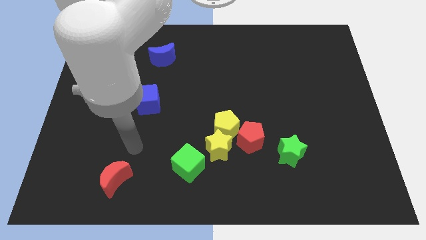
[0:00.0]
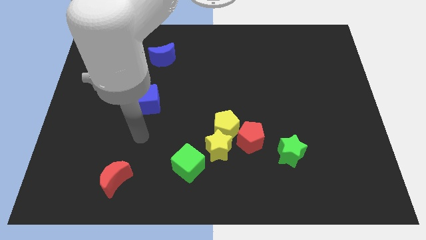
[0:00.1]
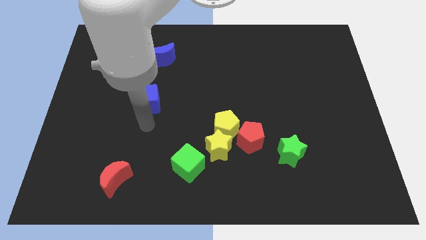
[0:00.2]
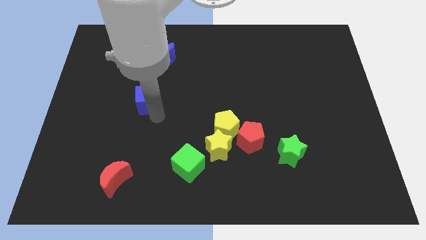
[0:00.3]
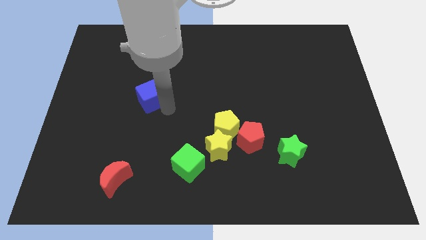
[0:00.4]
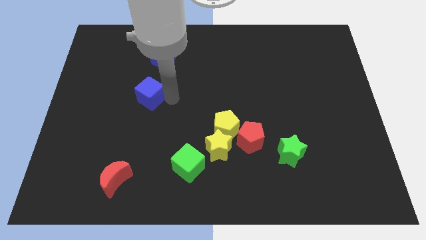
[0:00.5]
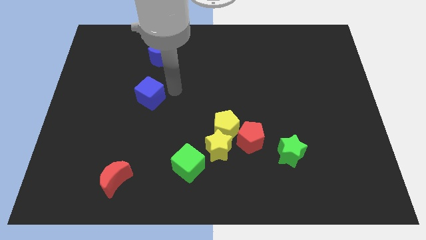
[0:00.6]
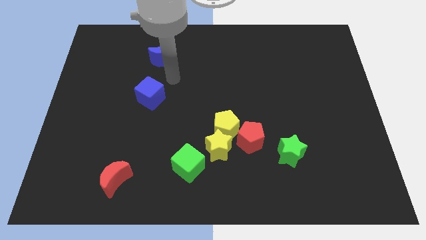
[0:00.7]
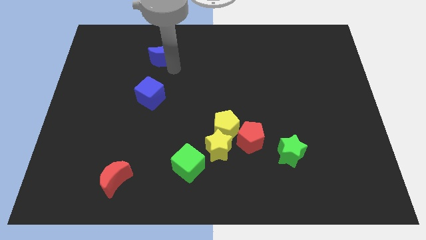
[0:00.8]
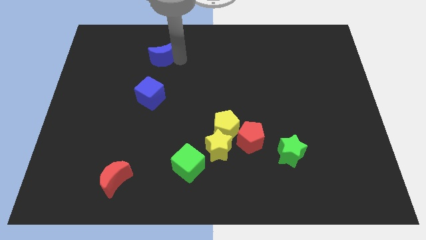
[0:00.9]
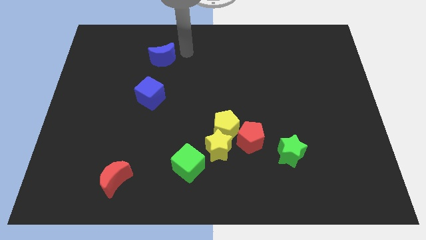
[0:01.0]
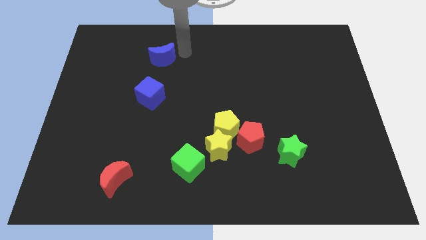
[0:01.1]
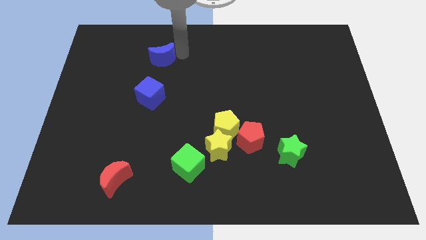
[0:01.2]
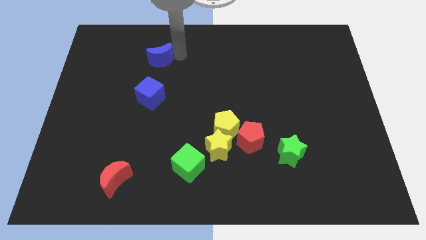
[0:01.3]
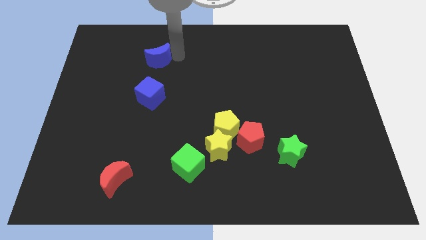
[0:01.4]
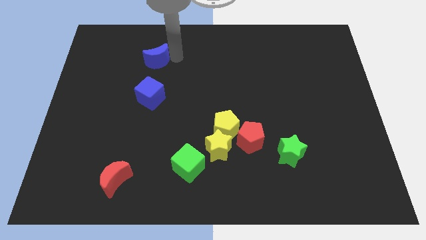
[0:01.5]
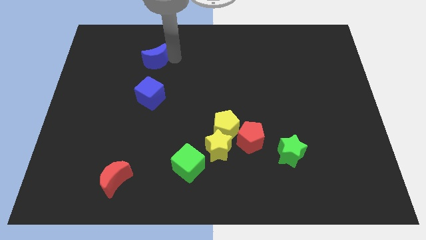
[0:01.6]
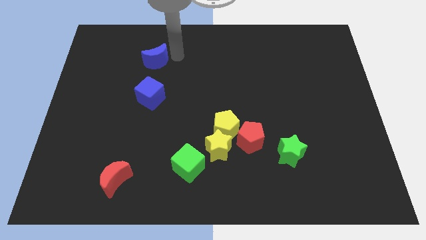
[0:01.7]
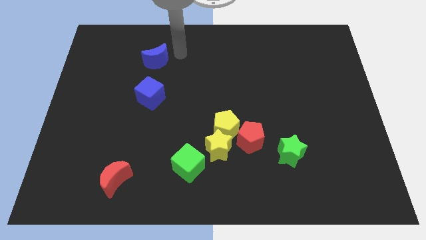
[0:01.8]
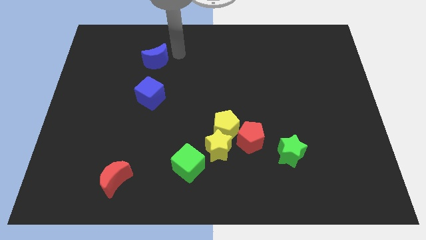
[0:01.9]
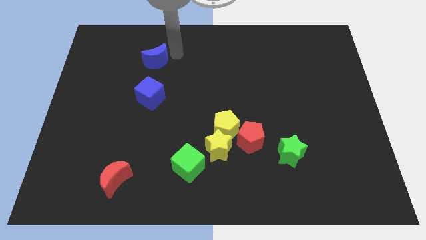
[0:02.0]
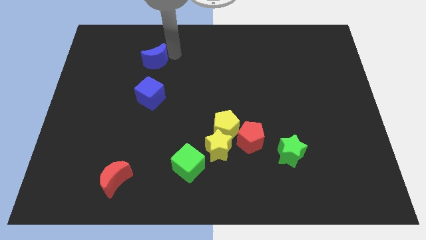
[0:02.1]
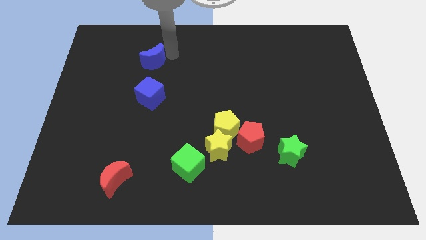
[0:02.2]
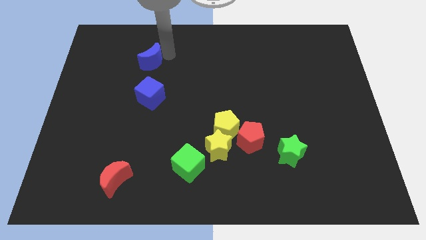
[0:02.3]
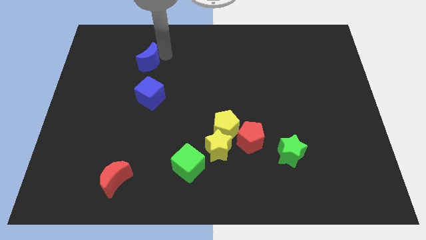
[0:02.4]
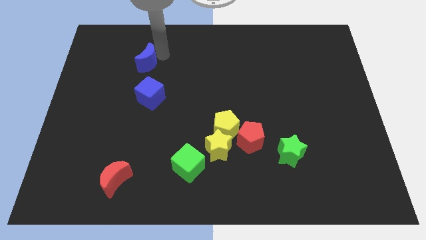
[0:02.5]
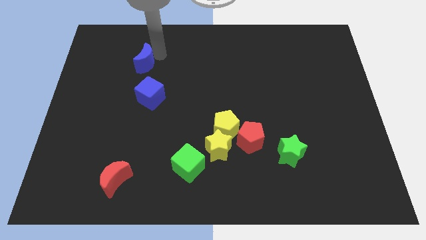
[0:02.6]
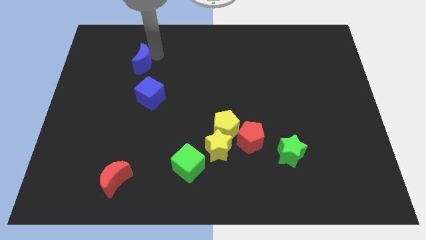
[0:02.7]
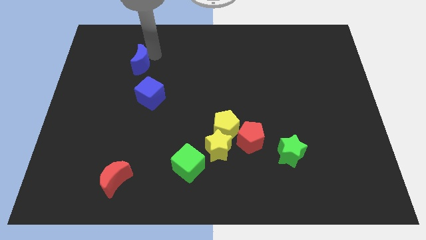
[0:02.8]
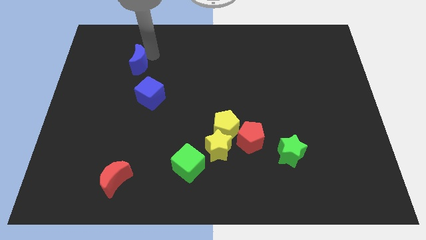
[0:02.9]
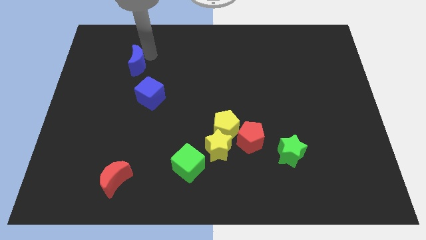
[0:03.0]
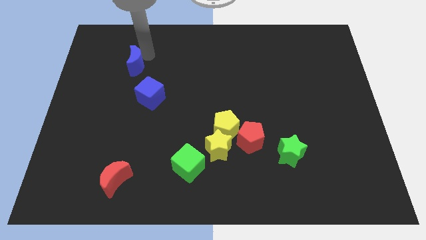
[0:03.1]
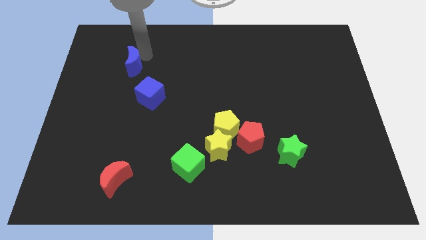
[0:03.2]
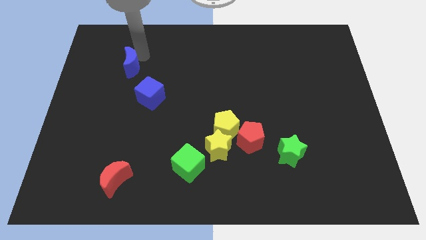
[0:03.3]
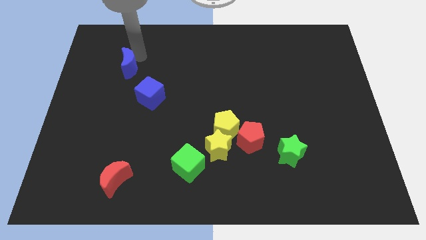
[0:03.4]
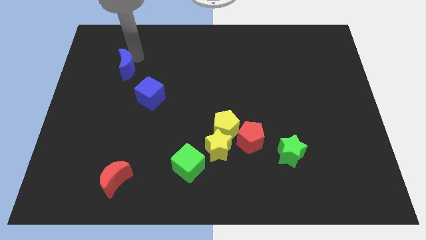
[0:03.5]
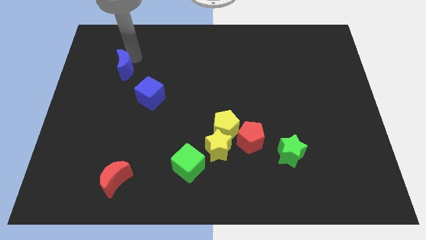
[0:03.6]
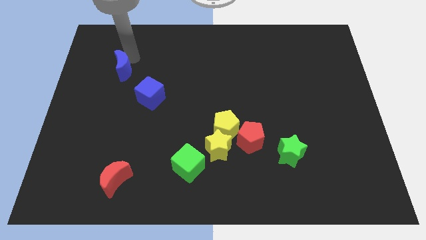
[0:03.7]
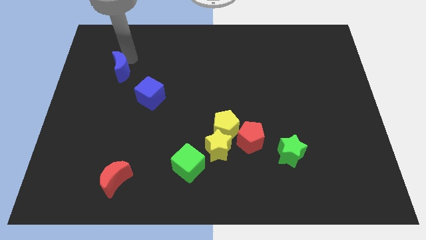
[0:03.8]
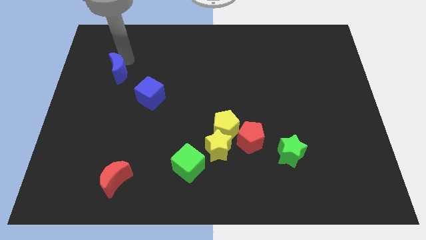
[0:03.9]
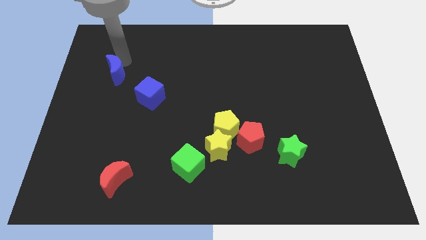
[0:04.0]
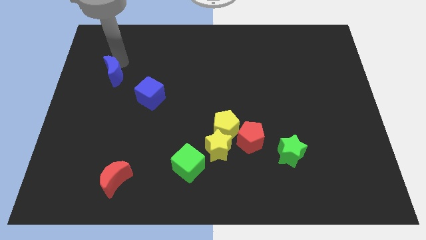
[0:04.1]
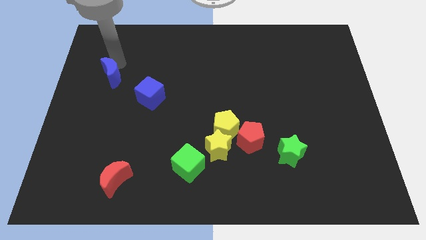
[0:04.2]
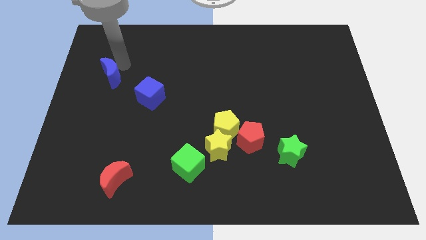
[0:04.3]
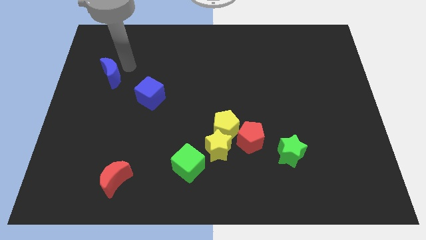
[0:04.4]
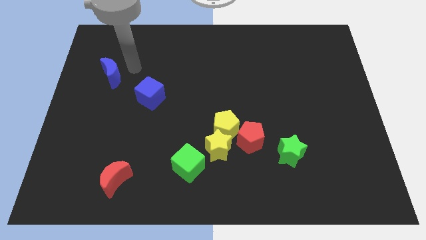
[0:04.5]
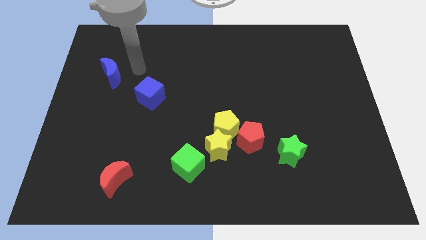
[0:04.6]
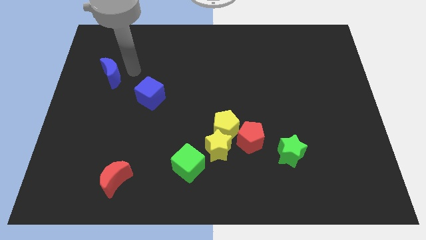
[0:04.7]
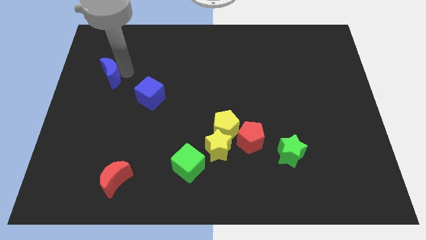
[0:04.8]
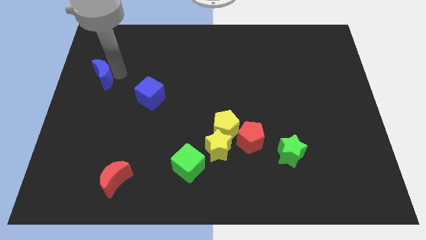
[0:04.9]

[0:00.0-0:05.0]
put the blue moon to the center left

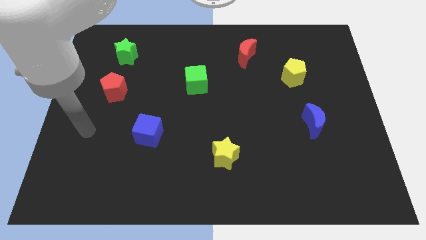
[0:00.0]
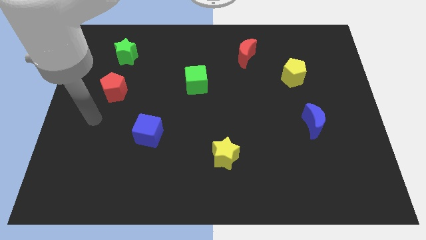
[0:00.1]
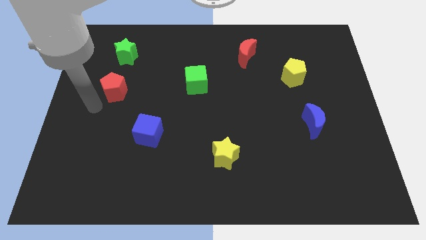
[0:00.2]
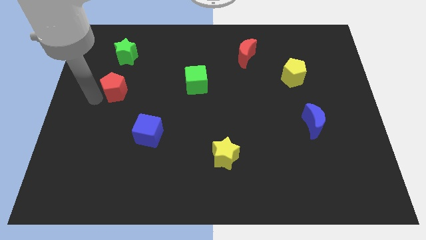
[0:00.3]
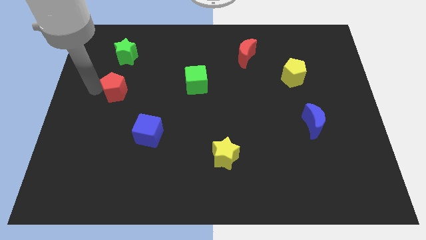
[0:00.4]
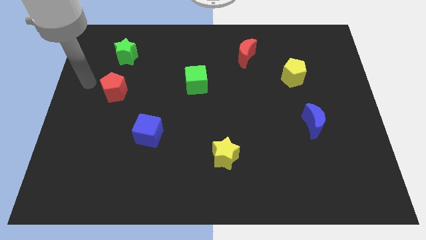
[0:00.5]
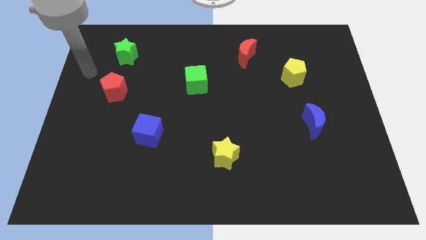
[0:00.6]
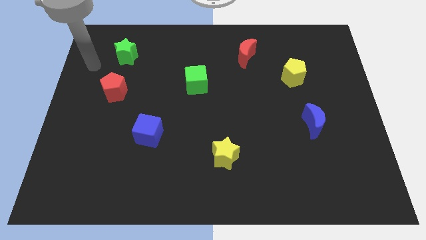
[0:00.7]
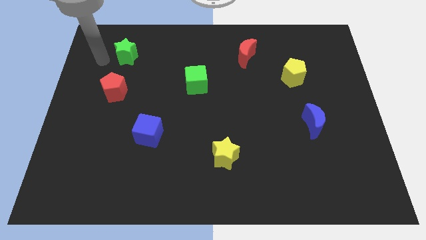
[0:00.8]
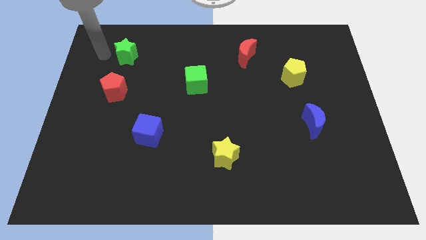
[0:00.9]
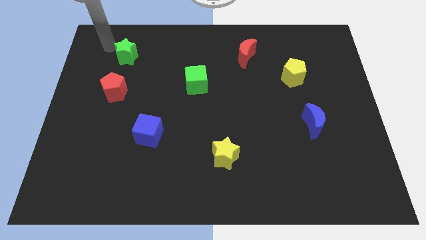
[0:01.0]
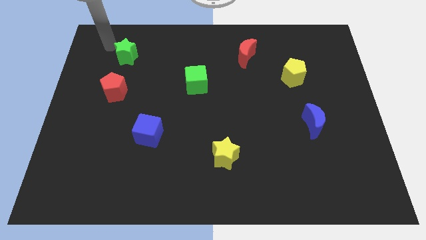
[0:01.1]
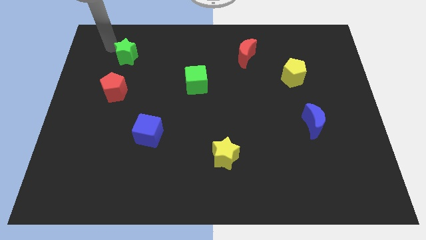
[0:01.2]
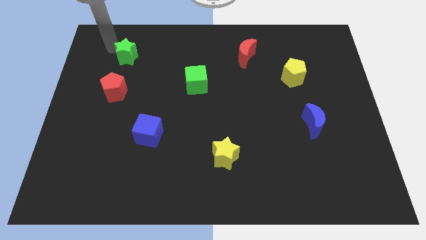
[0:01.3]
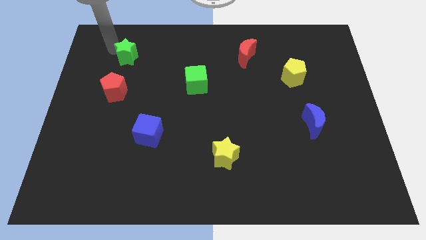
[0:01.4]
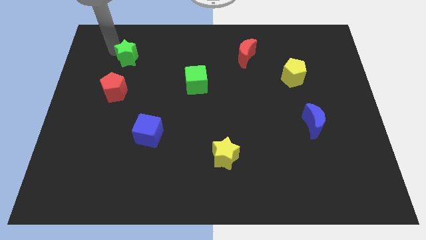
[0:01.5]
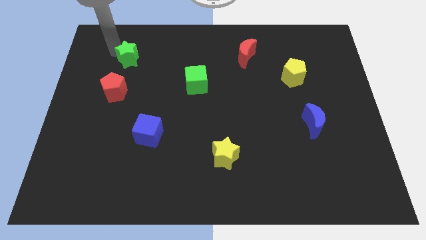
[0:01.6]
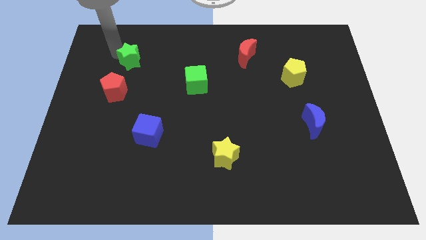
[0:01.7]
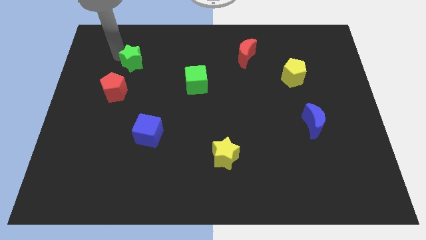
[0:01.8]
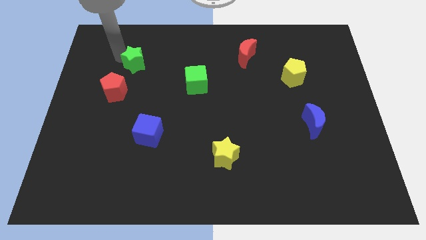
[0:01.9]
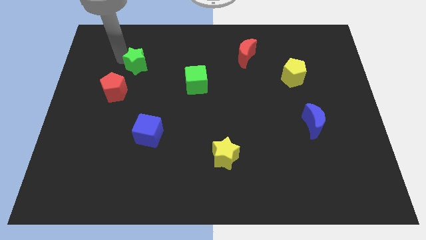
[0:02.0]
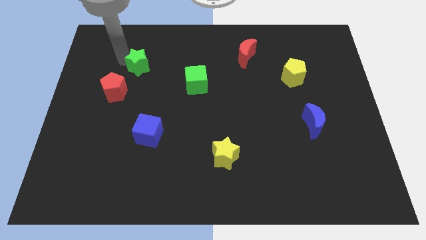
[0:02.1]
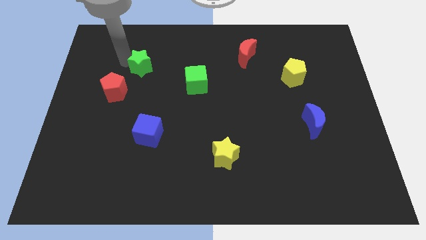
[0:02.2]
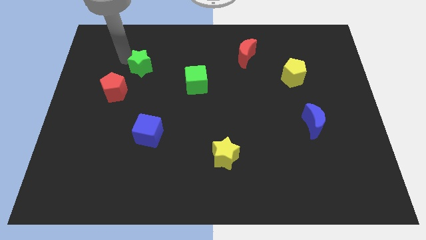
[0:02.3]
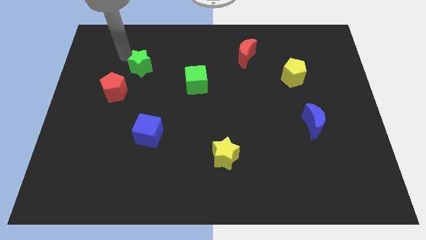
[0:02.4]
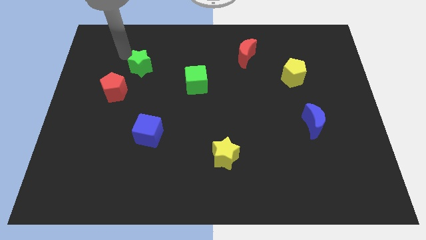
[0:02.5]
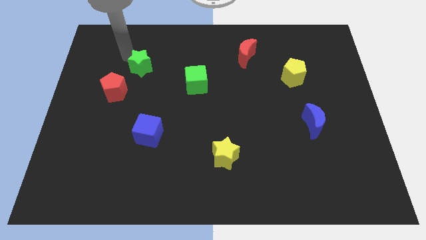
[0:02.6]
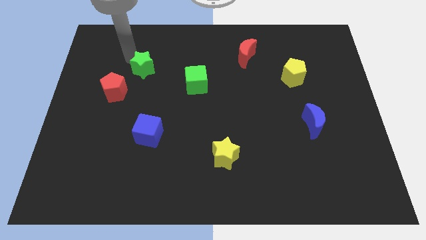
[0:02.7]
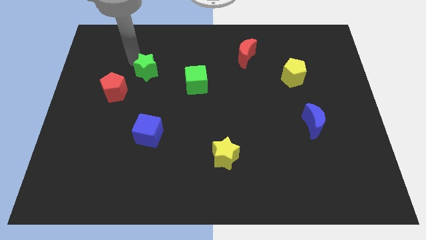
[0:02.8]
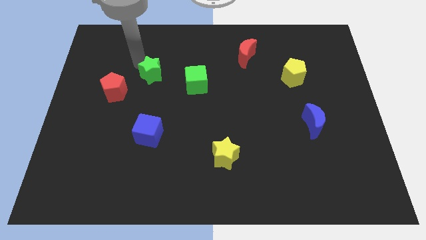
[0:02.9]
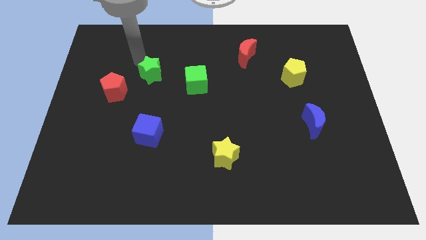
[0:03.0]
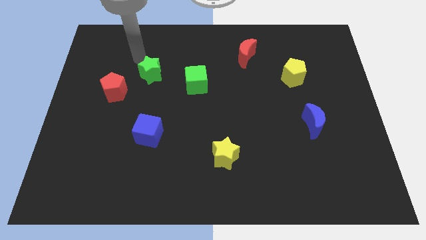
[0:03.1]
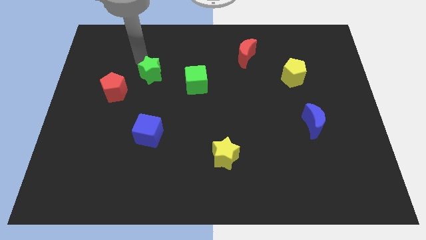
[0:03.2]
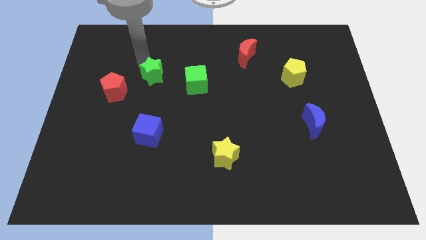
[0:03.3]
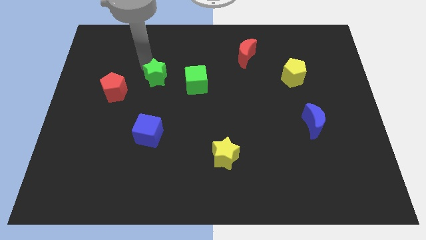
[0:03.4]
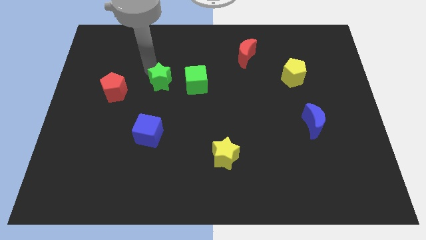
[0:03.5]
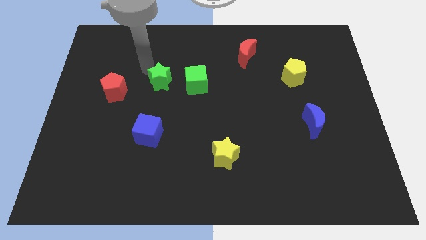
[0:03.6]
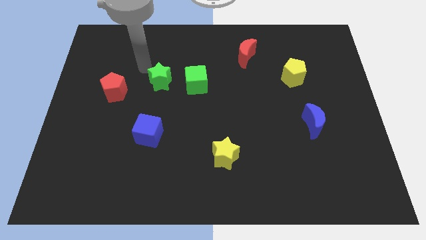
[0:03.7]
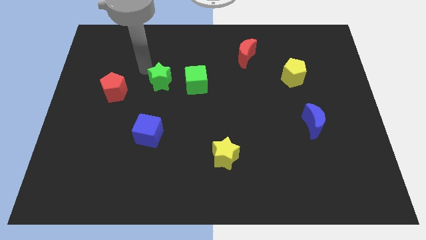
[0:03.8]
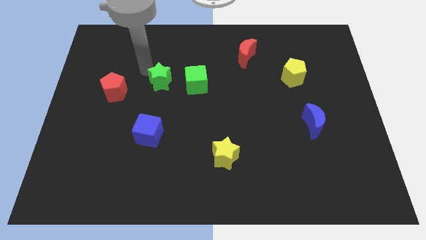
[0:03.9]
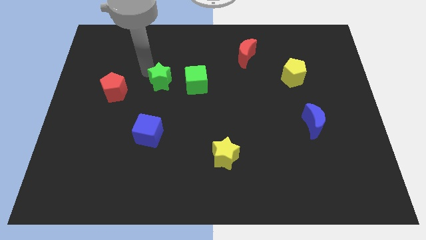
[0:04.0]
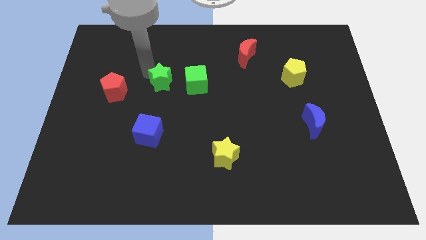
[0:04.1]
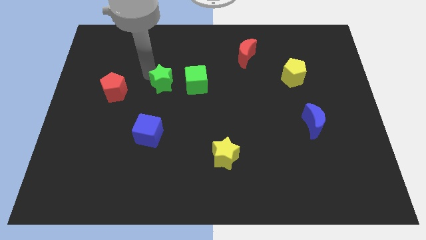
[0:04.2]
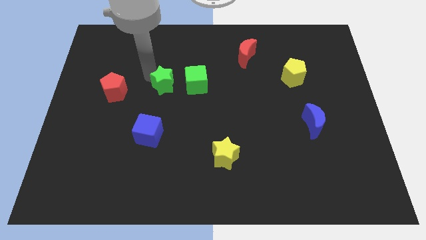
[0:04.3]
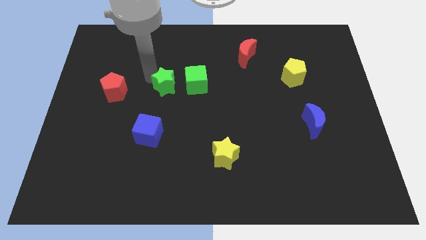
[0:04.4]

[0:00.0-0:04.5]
move the green star to the middle of the board
